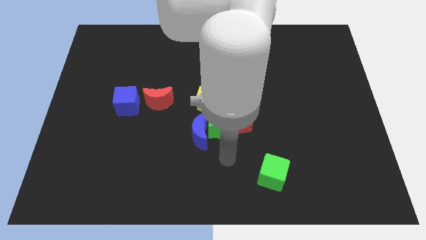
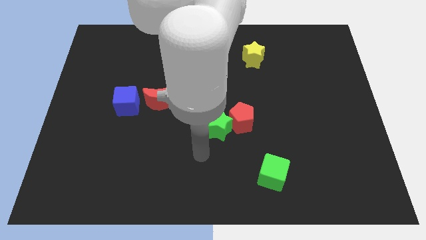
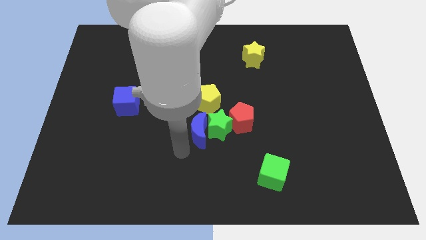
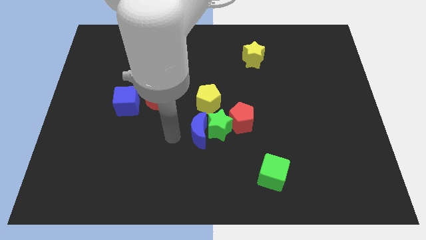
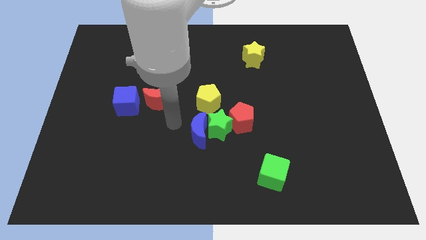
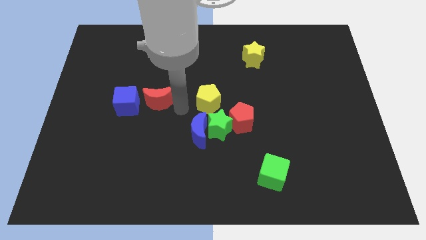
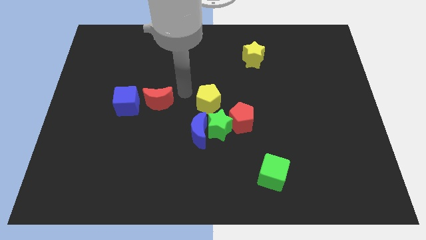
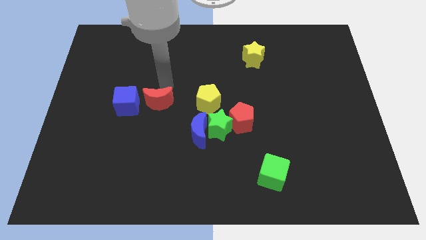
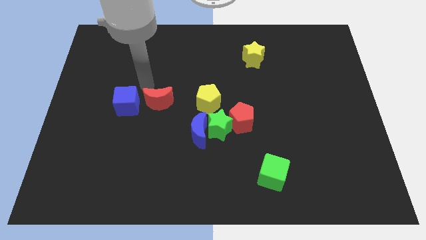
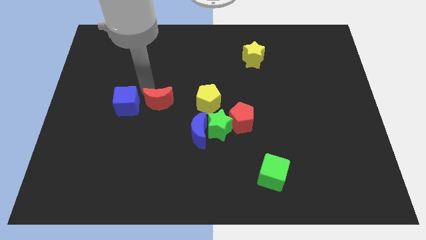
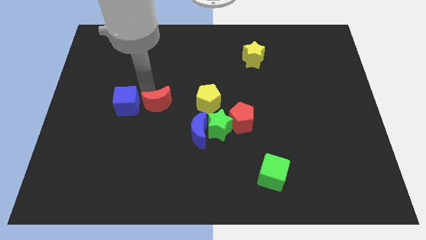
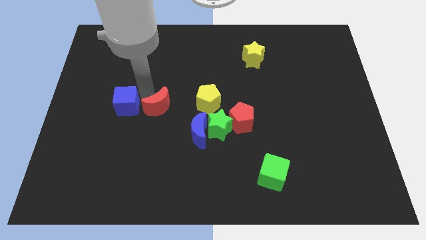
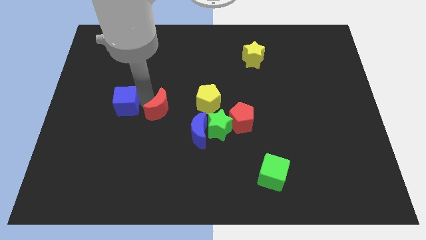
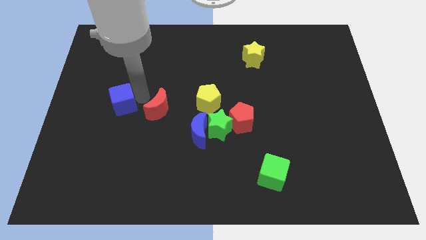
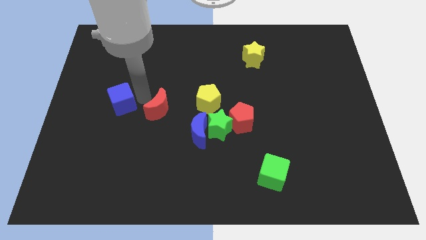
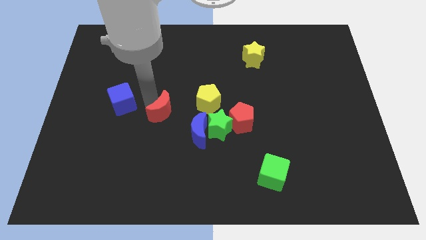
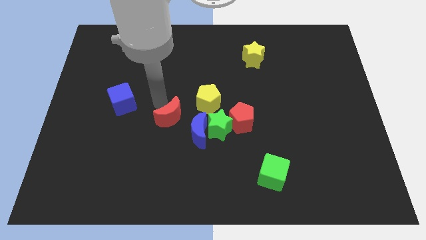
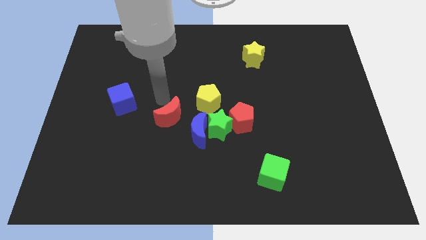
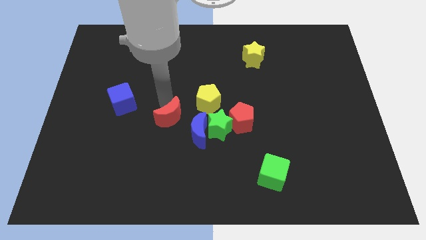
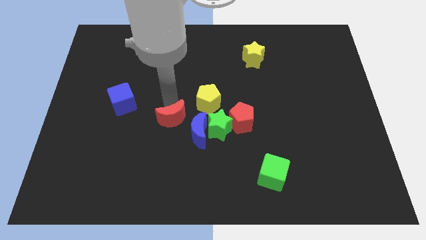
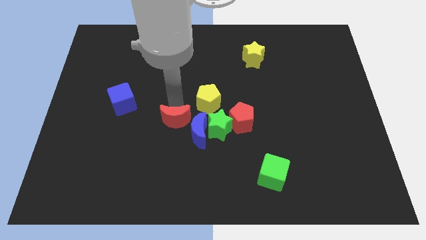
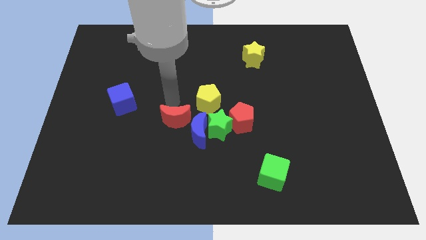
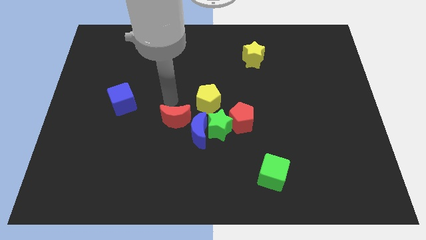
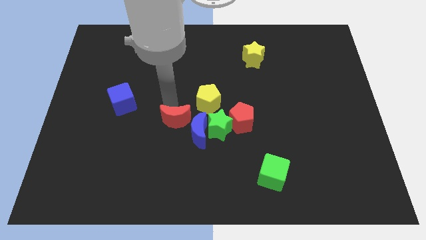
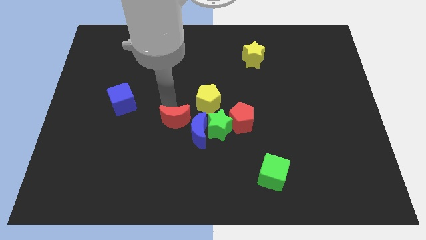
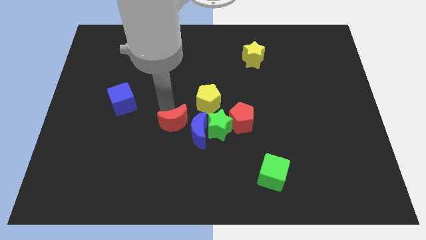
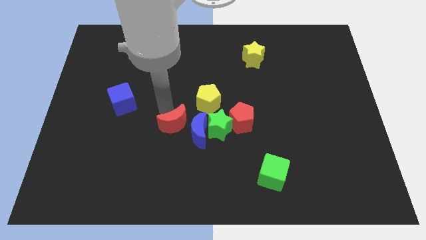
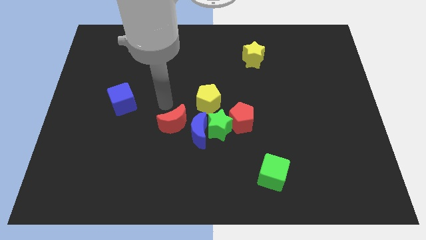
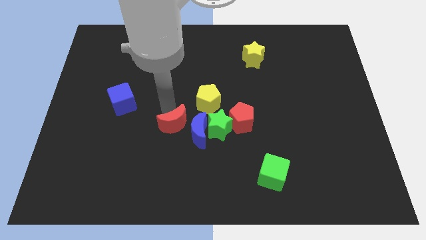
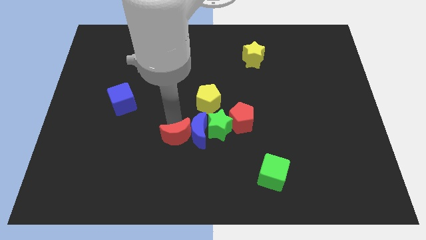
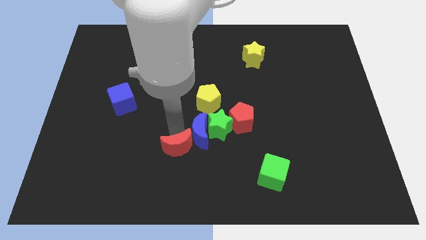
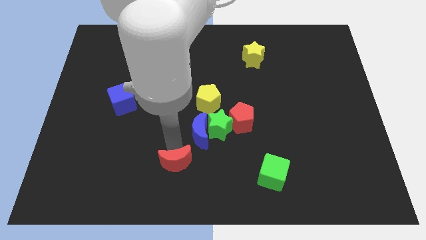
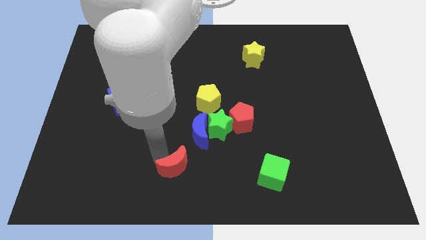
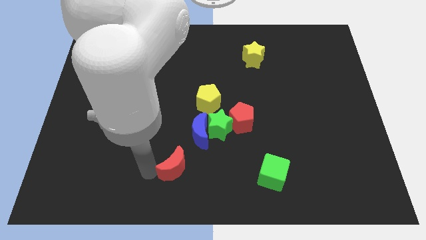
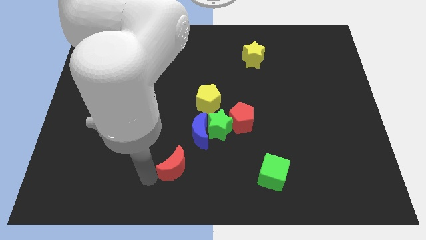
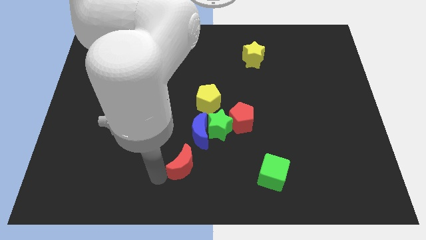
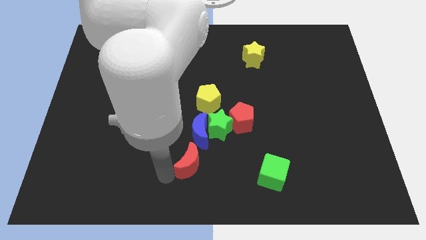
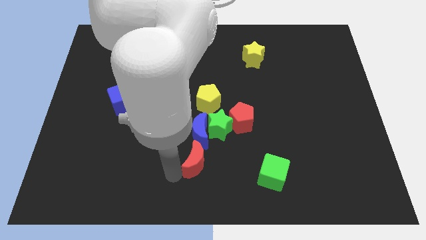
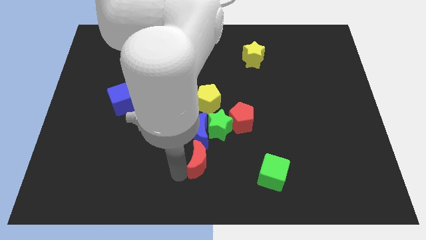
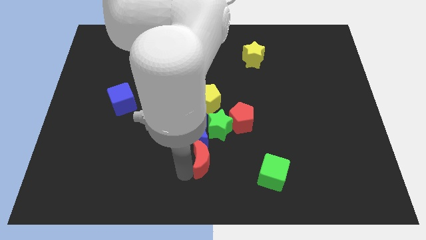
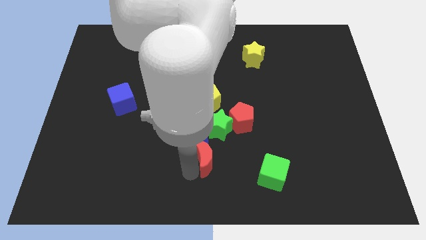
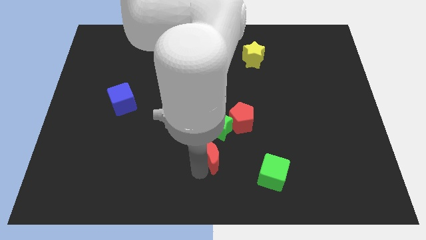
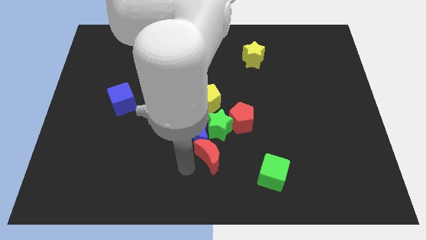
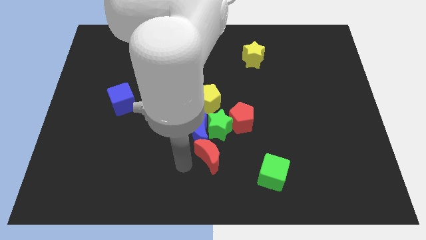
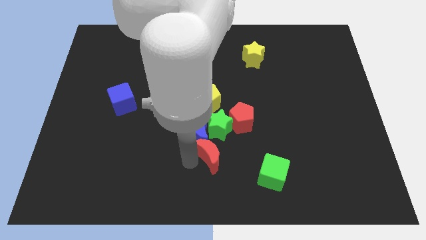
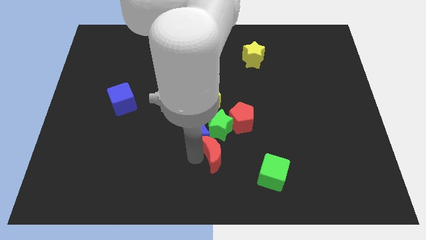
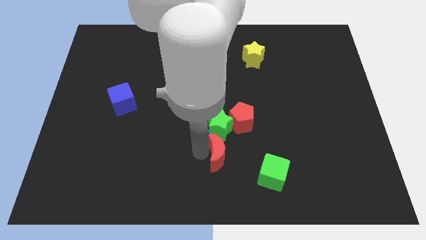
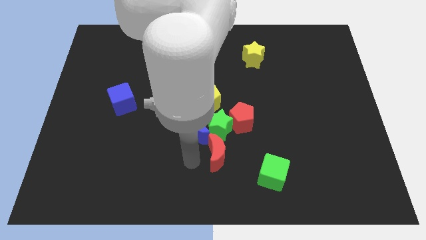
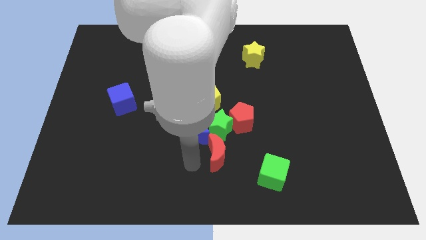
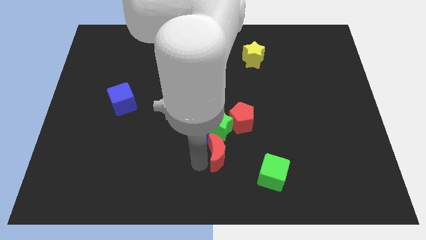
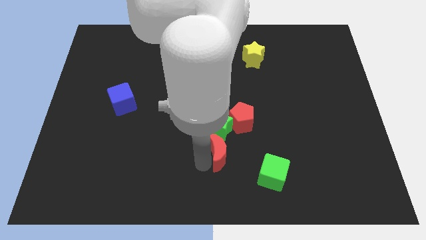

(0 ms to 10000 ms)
put the red moon to the bottom right side of the green star

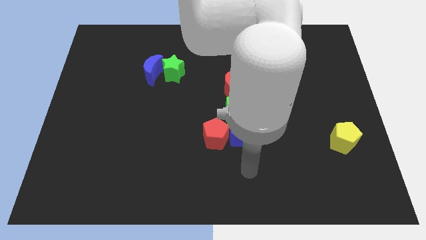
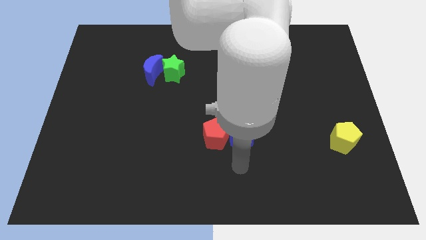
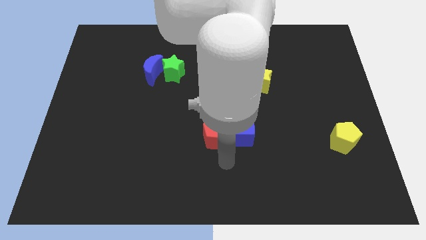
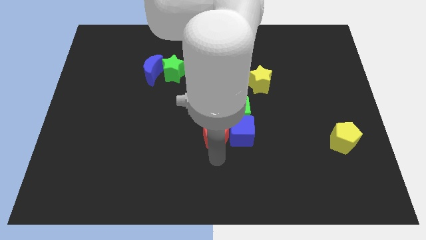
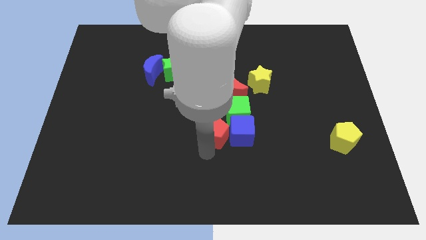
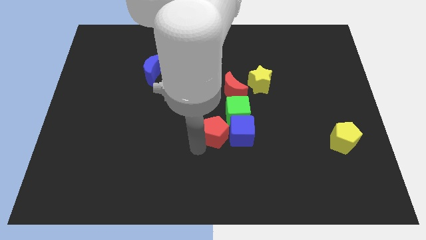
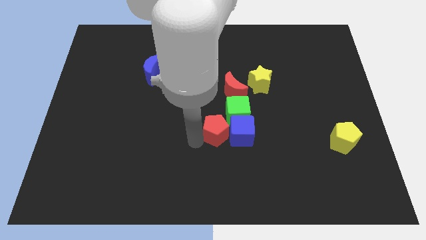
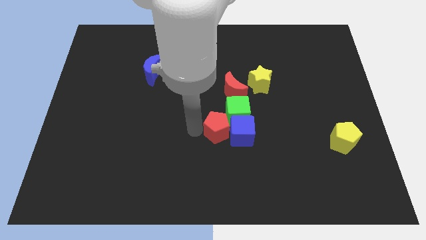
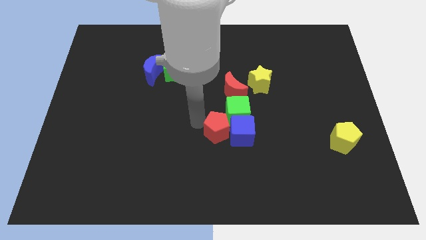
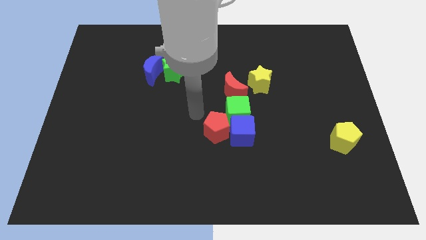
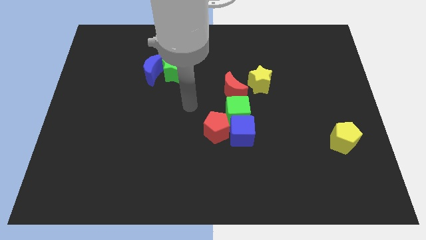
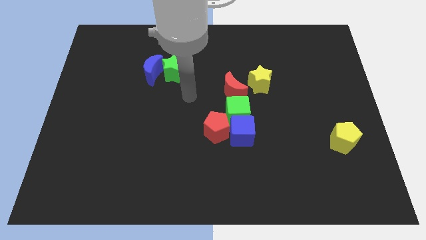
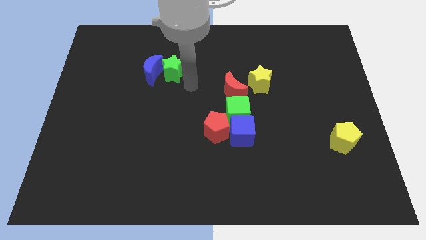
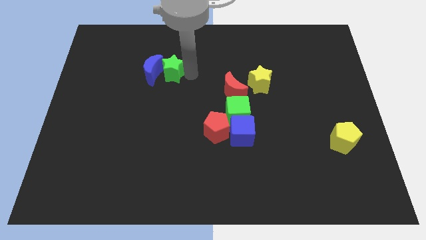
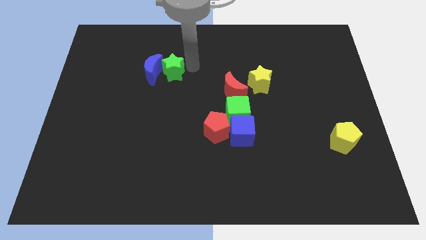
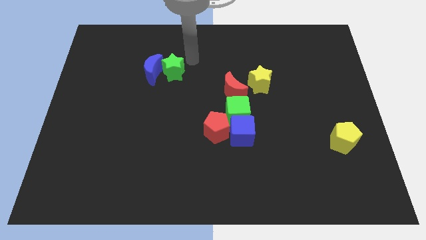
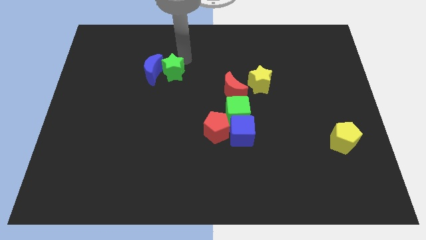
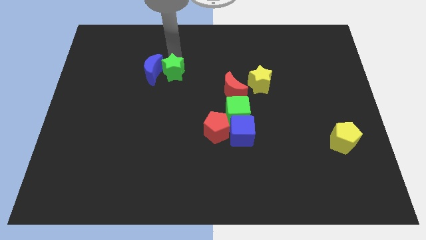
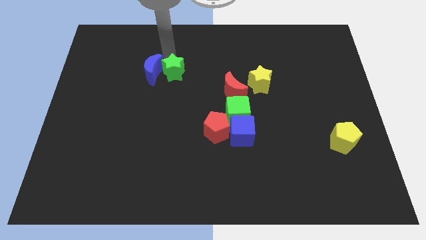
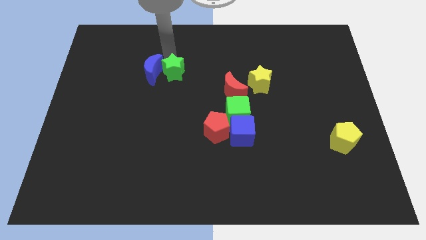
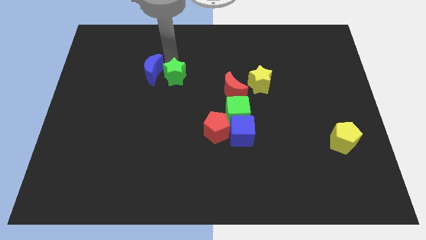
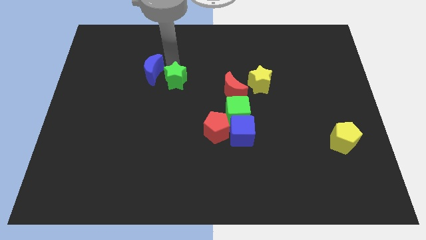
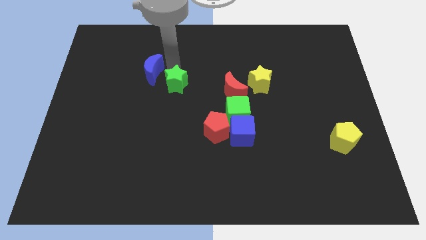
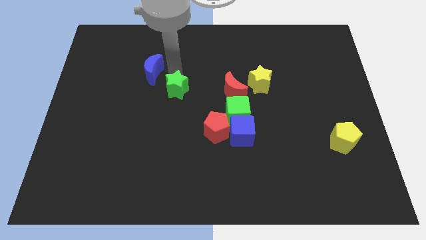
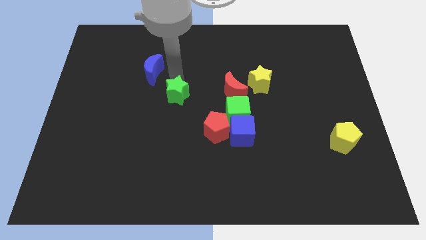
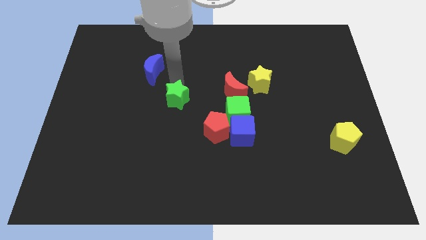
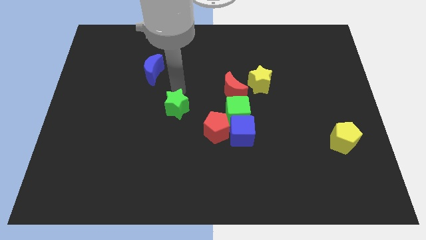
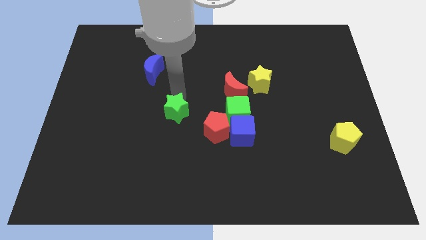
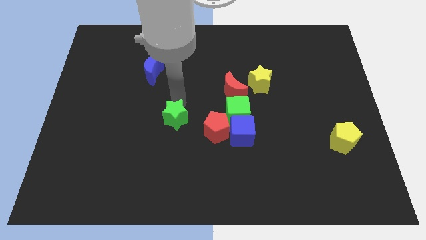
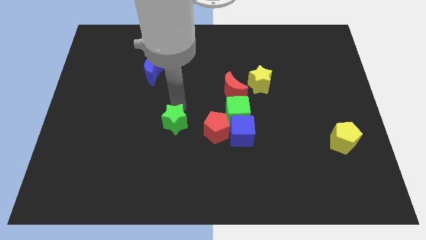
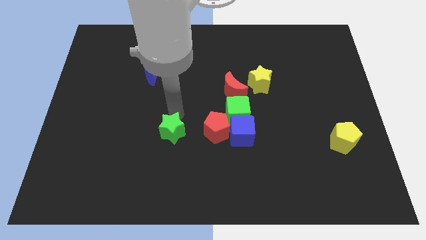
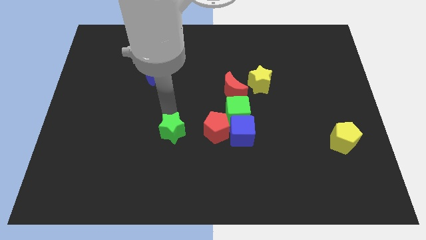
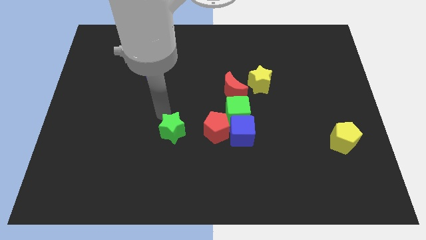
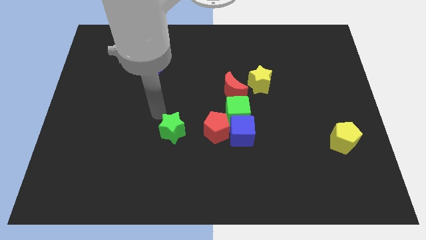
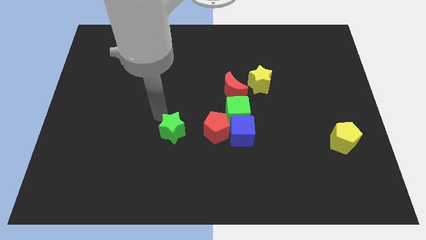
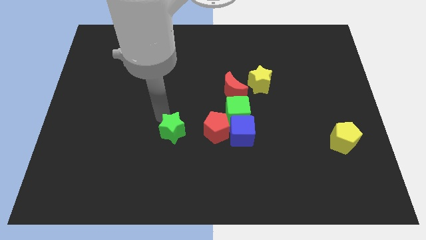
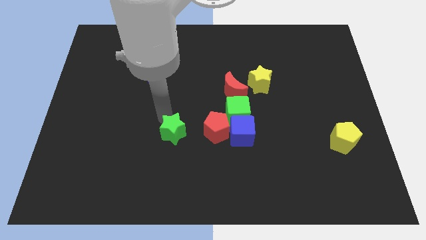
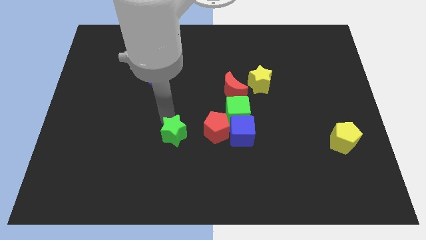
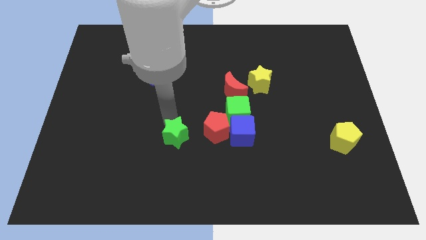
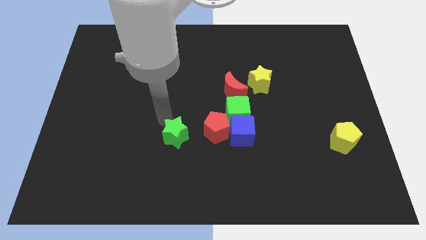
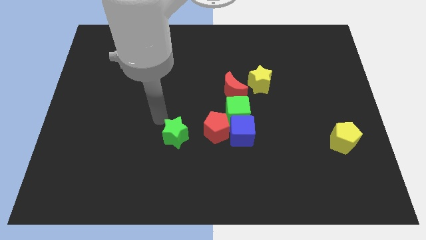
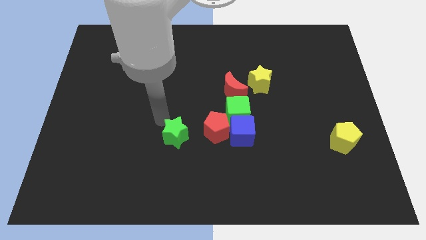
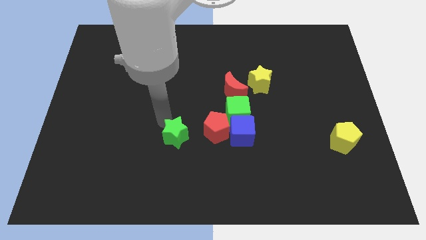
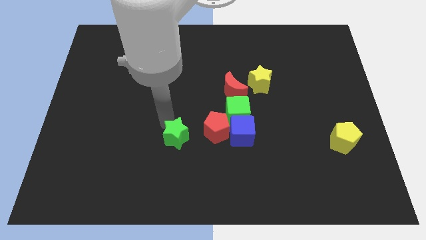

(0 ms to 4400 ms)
push the green star diagonally down and to the left of the red pentagon
